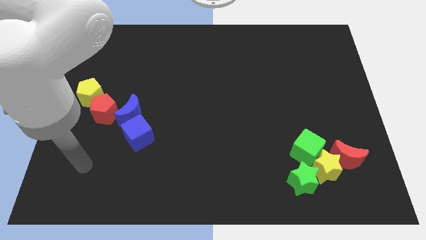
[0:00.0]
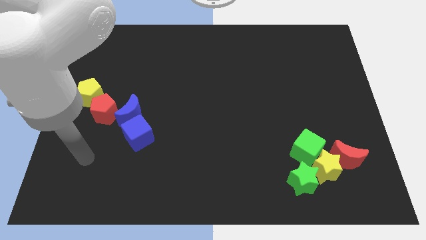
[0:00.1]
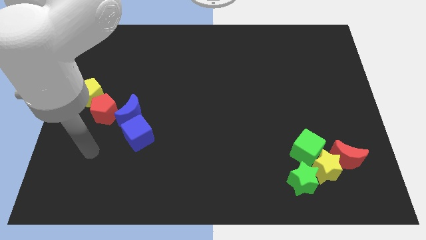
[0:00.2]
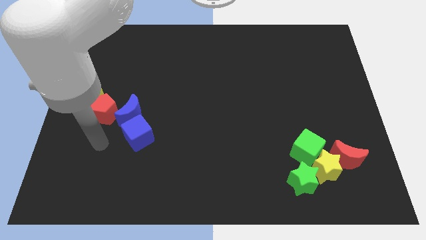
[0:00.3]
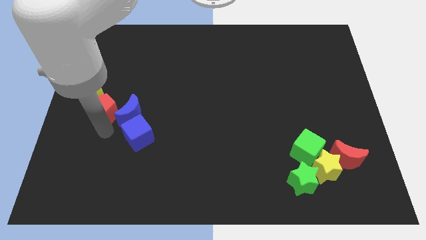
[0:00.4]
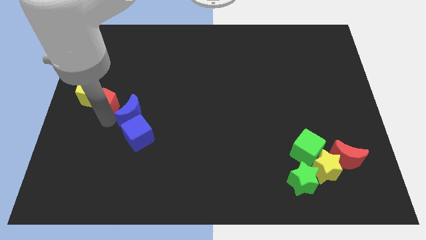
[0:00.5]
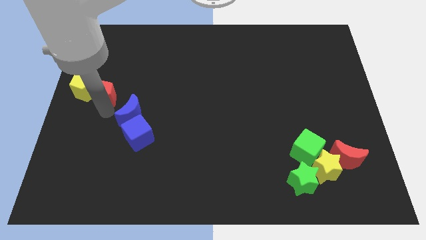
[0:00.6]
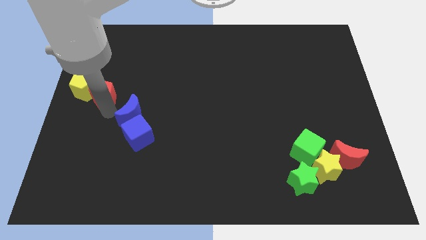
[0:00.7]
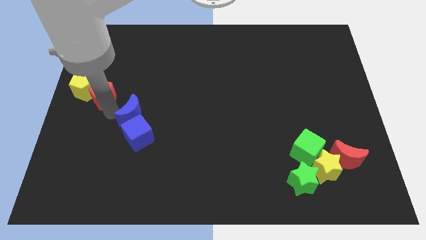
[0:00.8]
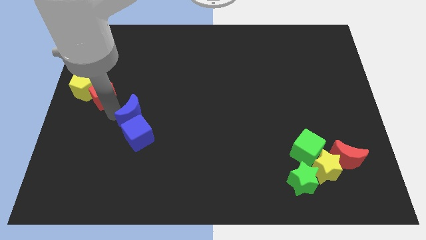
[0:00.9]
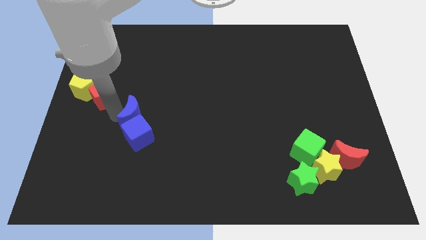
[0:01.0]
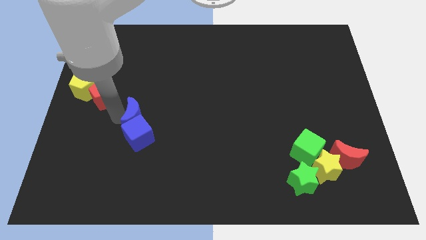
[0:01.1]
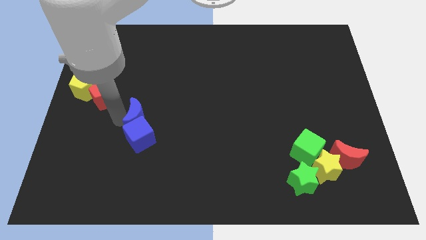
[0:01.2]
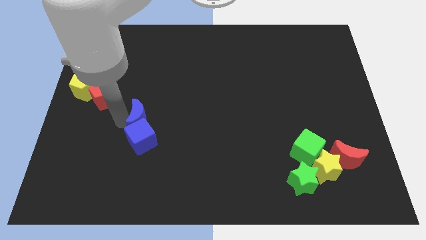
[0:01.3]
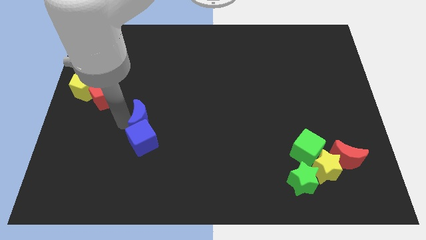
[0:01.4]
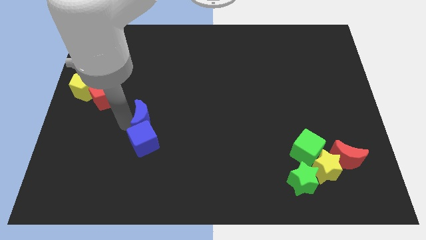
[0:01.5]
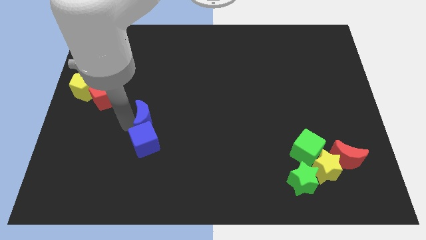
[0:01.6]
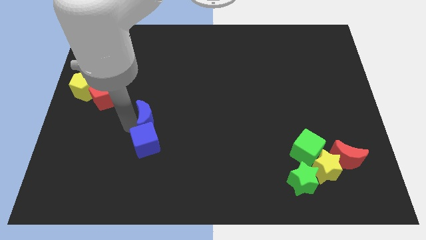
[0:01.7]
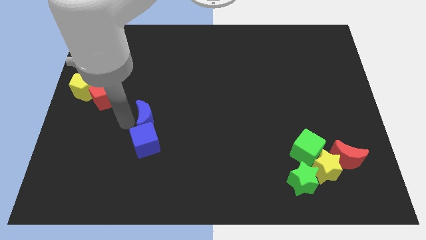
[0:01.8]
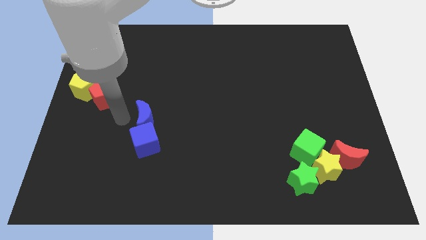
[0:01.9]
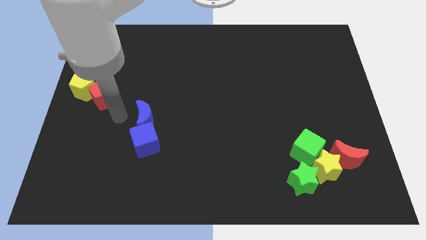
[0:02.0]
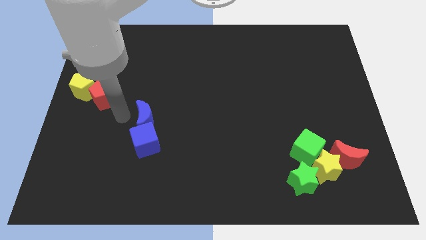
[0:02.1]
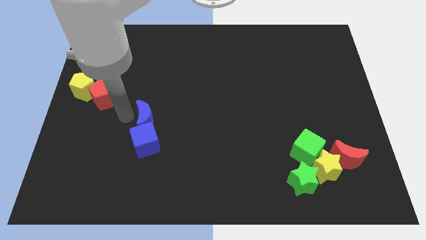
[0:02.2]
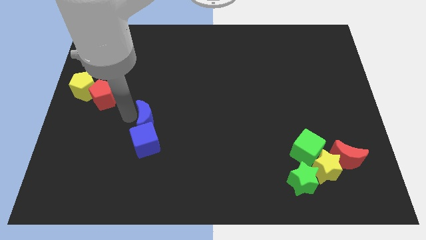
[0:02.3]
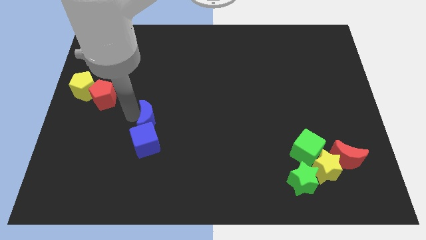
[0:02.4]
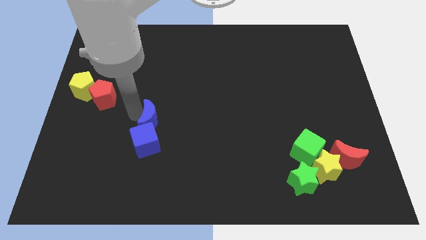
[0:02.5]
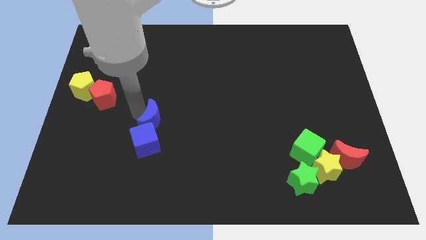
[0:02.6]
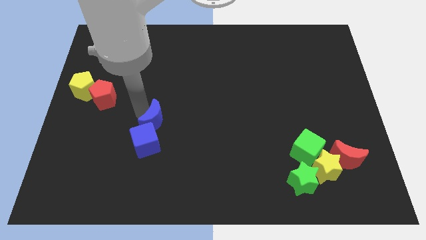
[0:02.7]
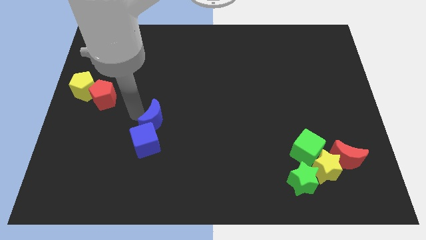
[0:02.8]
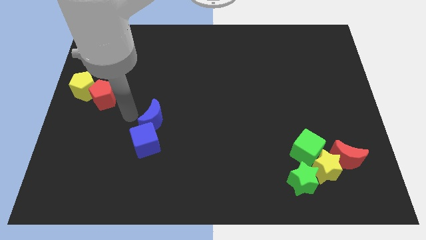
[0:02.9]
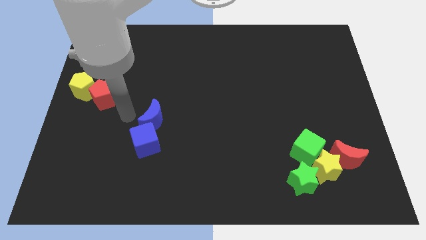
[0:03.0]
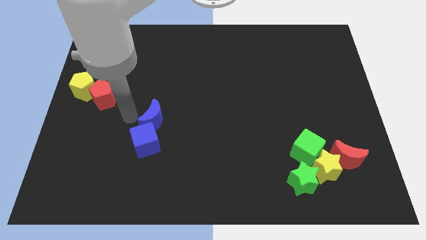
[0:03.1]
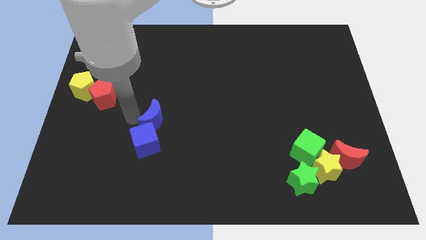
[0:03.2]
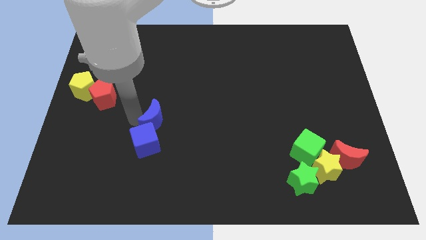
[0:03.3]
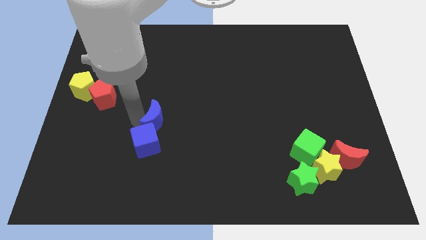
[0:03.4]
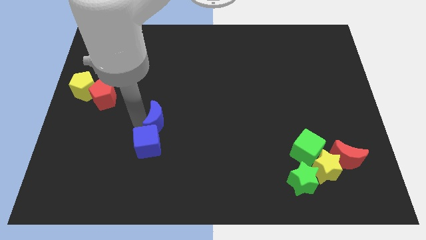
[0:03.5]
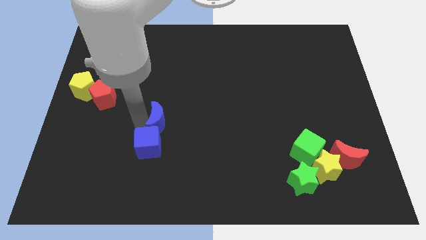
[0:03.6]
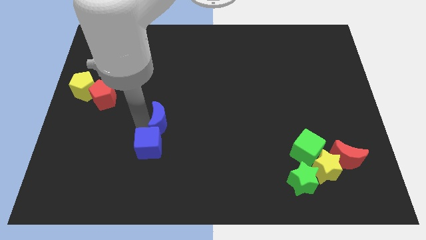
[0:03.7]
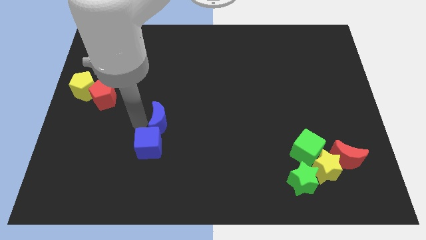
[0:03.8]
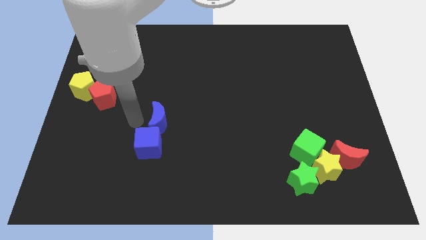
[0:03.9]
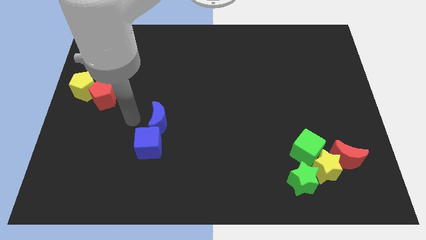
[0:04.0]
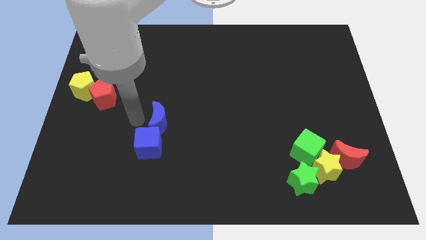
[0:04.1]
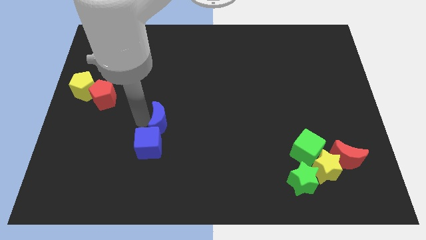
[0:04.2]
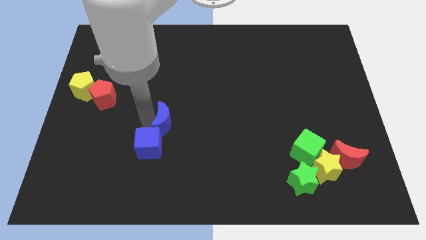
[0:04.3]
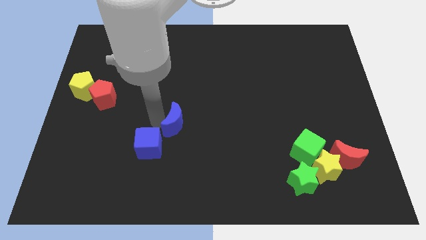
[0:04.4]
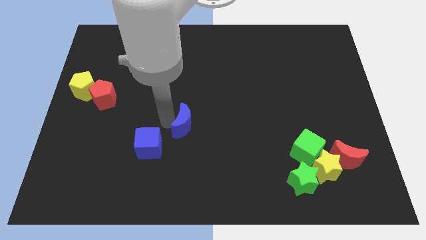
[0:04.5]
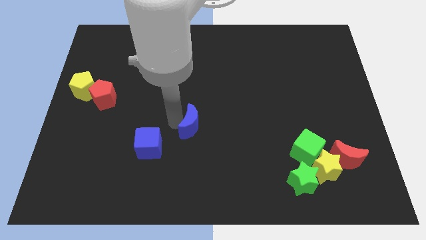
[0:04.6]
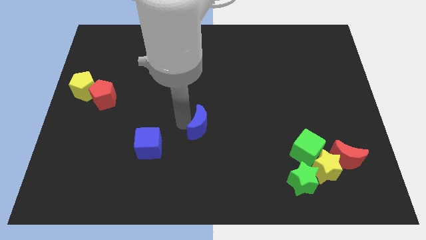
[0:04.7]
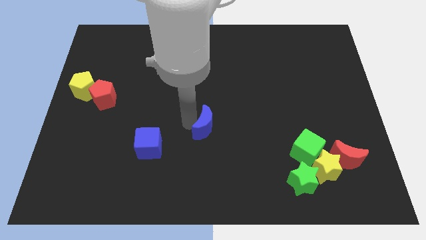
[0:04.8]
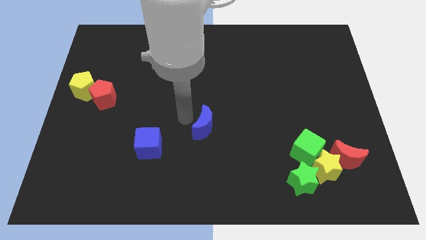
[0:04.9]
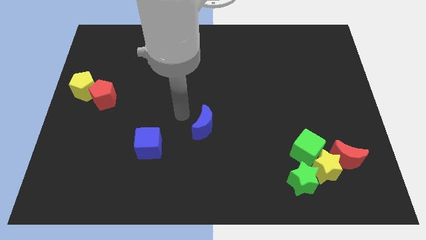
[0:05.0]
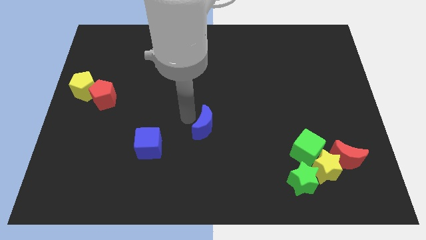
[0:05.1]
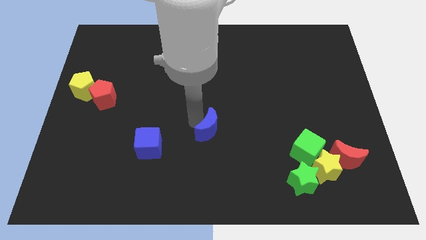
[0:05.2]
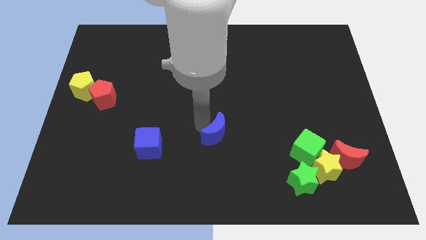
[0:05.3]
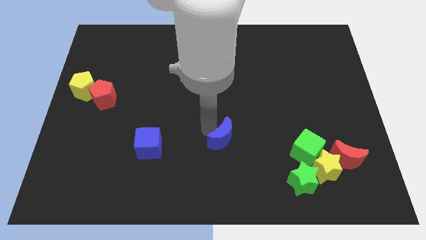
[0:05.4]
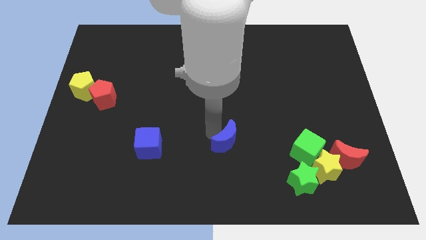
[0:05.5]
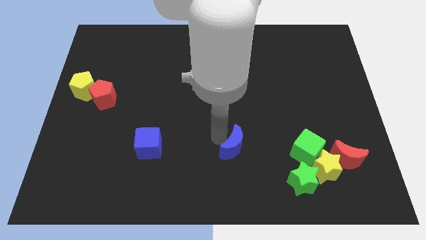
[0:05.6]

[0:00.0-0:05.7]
put the blue moon left of the green cube

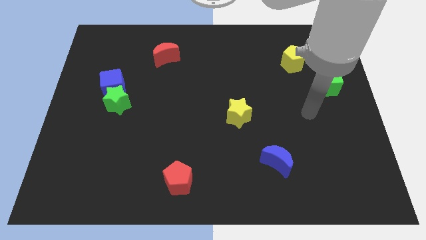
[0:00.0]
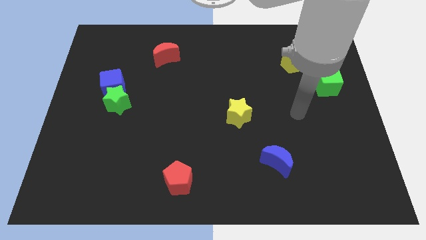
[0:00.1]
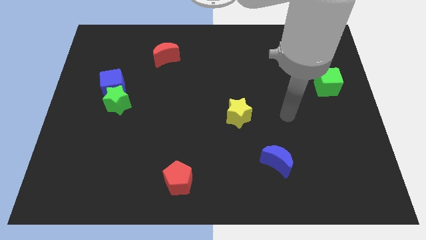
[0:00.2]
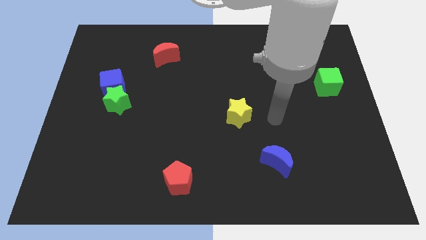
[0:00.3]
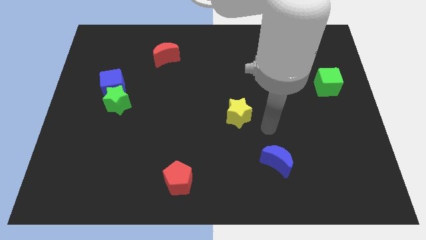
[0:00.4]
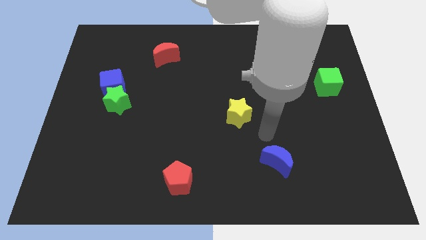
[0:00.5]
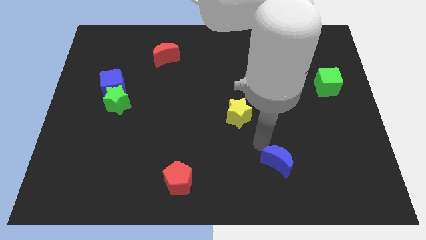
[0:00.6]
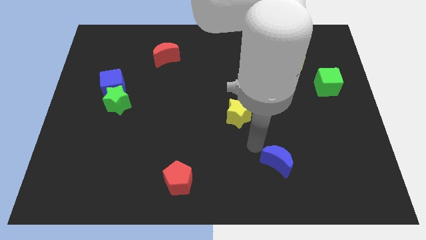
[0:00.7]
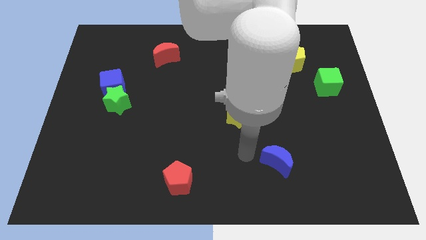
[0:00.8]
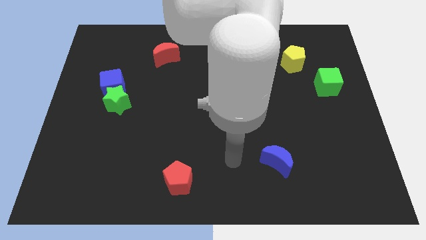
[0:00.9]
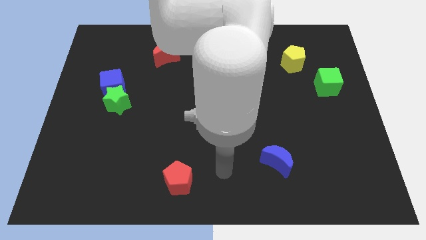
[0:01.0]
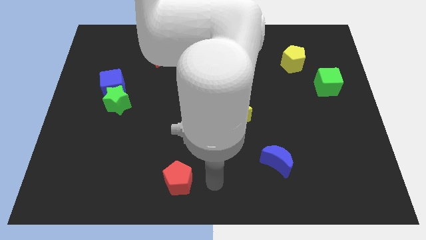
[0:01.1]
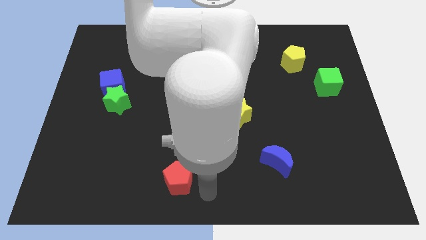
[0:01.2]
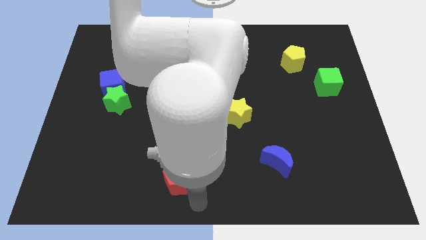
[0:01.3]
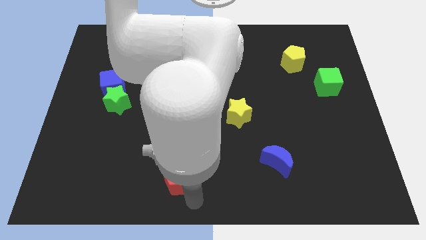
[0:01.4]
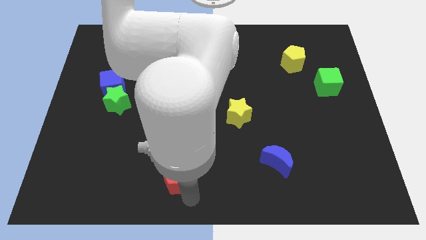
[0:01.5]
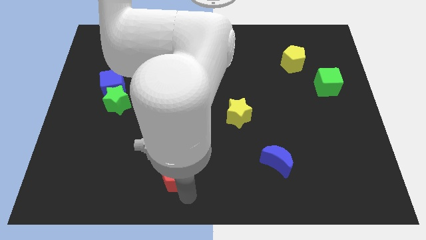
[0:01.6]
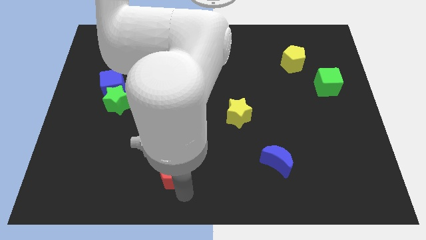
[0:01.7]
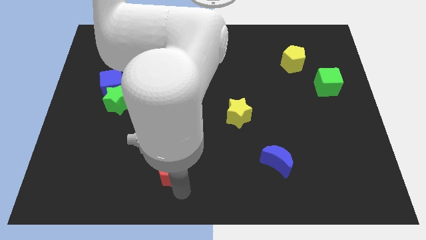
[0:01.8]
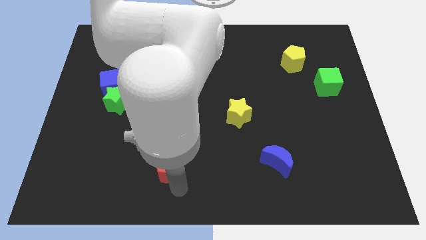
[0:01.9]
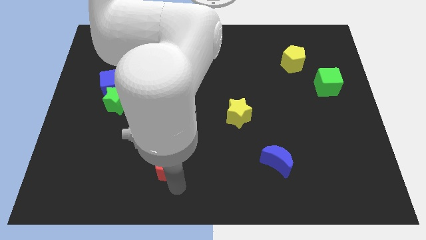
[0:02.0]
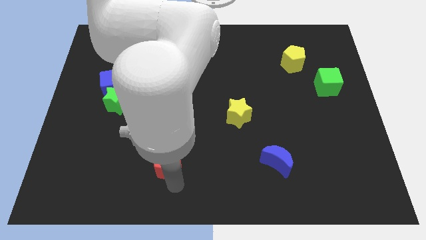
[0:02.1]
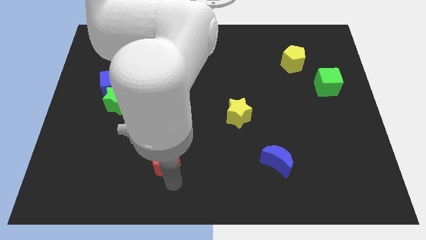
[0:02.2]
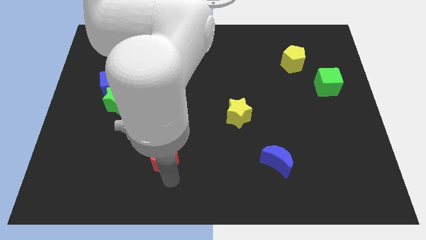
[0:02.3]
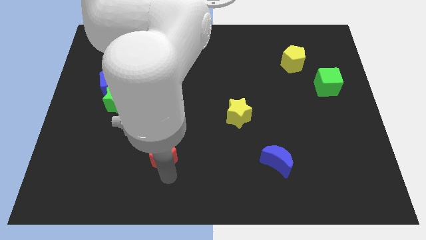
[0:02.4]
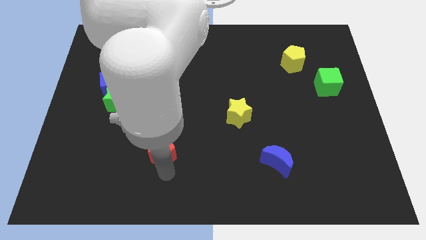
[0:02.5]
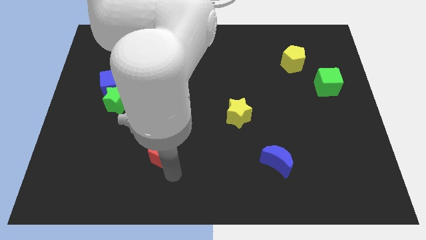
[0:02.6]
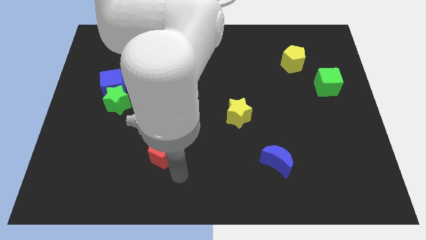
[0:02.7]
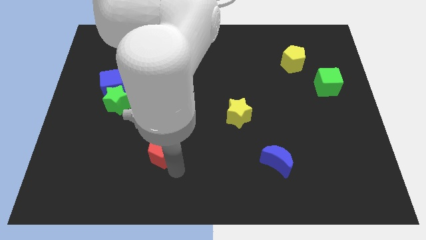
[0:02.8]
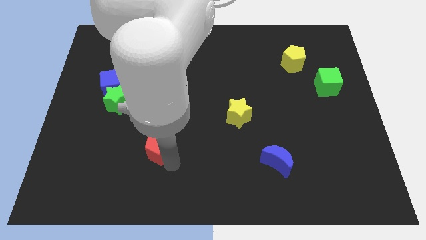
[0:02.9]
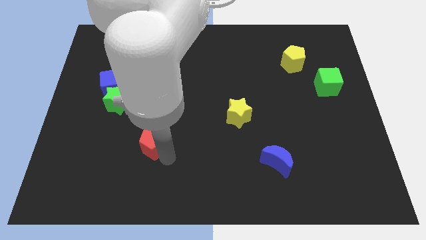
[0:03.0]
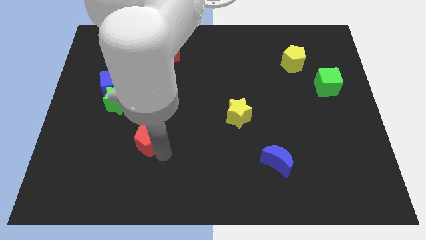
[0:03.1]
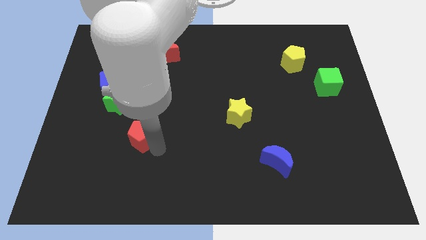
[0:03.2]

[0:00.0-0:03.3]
push the red pentagon diagonally down and to the right of the green star
